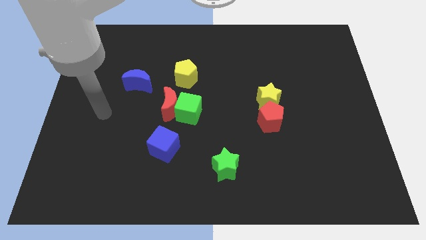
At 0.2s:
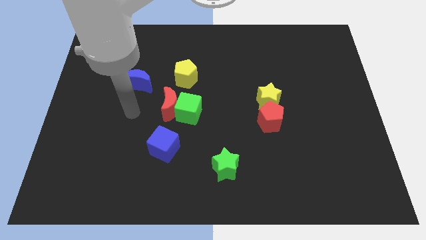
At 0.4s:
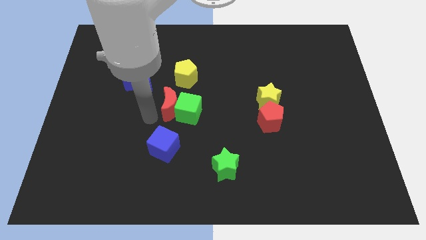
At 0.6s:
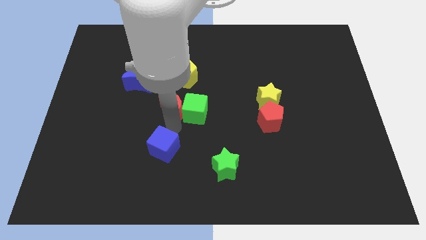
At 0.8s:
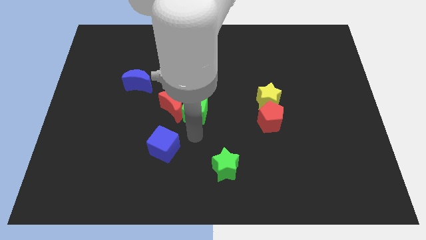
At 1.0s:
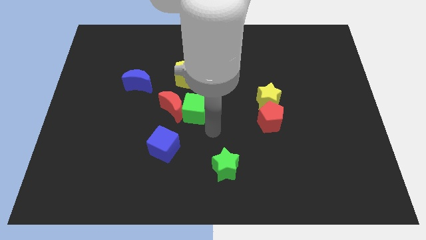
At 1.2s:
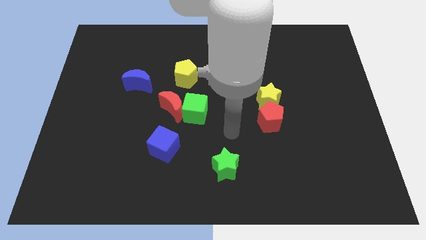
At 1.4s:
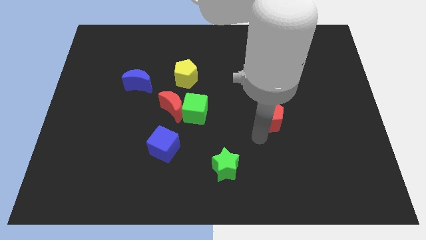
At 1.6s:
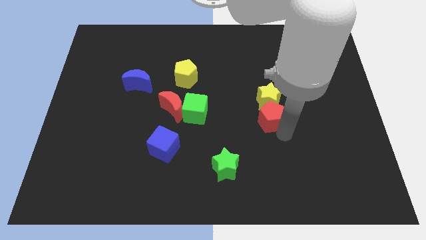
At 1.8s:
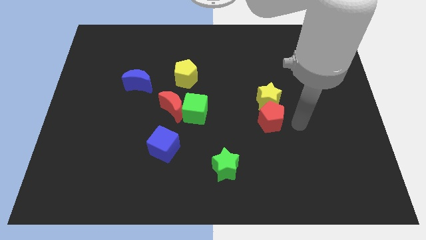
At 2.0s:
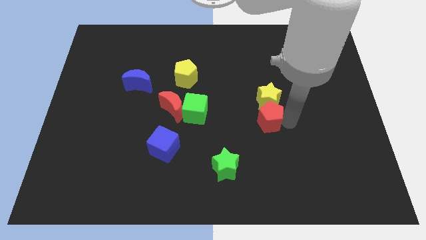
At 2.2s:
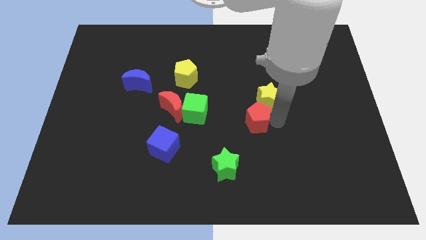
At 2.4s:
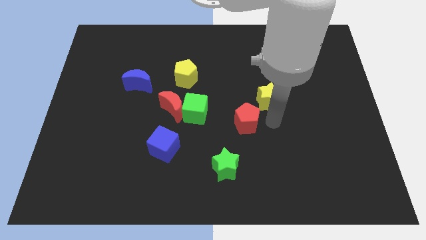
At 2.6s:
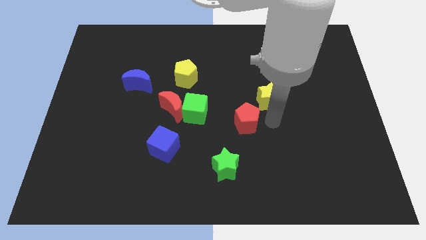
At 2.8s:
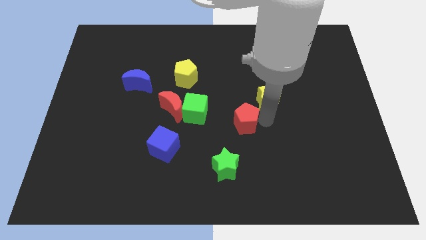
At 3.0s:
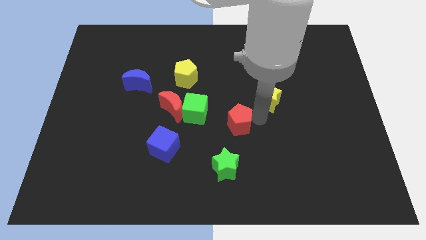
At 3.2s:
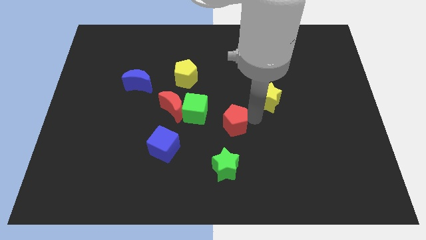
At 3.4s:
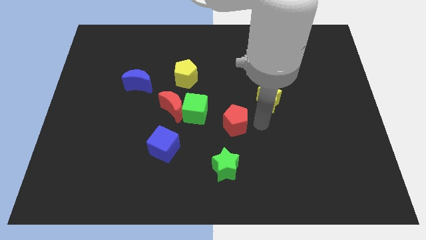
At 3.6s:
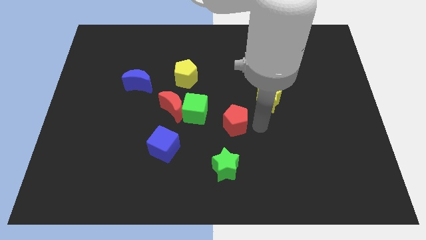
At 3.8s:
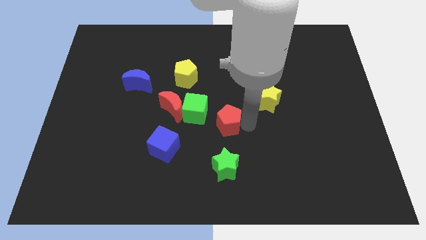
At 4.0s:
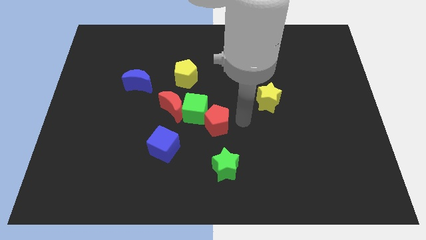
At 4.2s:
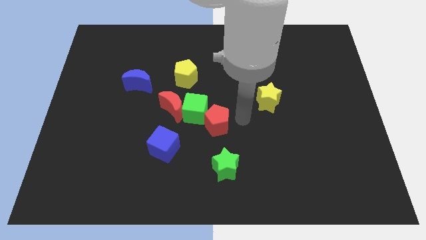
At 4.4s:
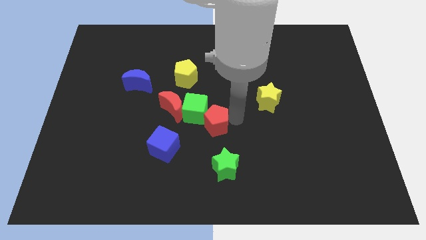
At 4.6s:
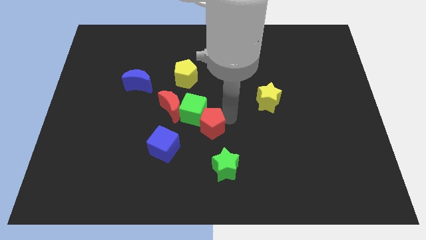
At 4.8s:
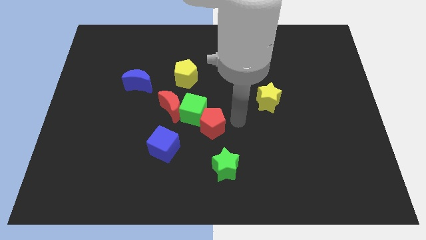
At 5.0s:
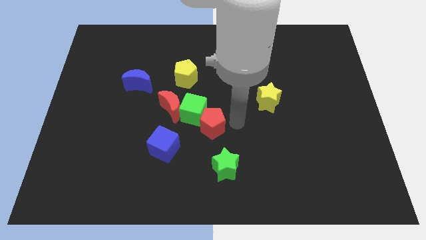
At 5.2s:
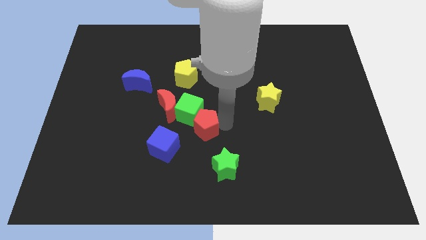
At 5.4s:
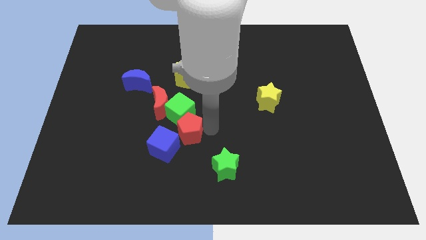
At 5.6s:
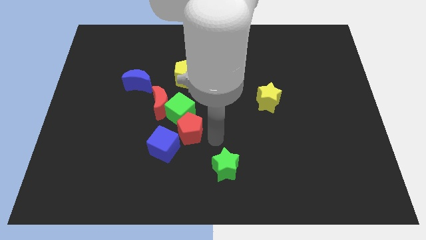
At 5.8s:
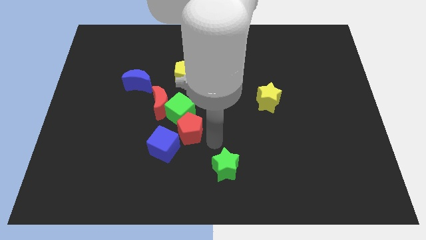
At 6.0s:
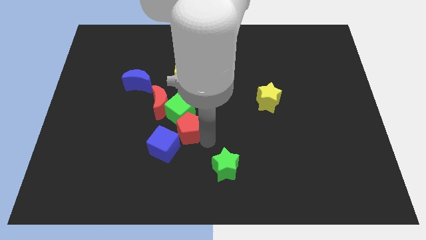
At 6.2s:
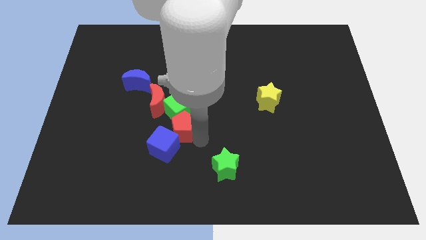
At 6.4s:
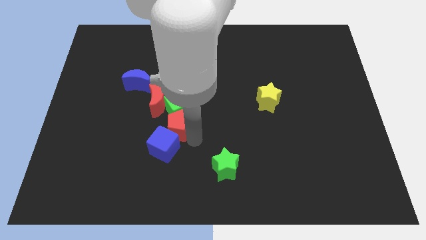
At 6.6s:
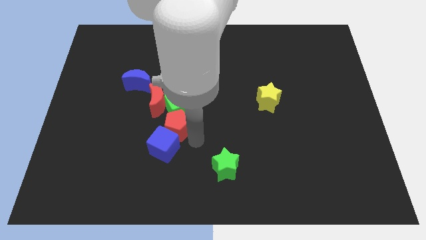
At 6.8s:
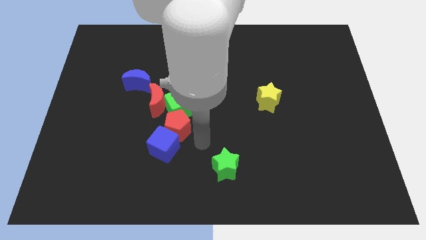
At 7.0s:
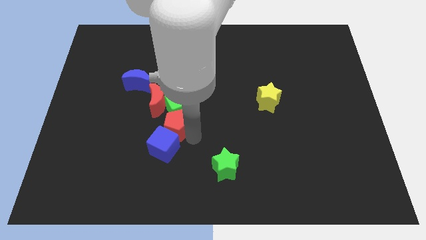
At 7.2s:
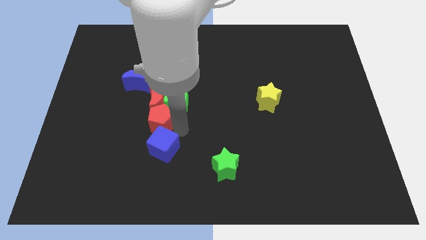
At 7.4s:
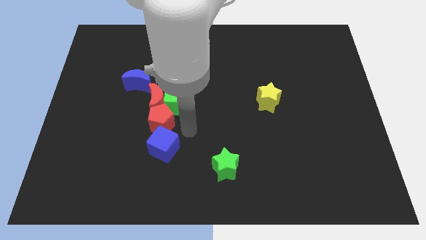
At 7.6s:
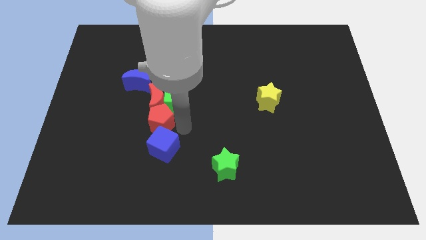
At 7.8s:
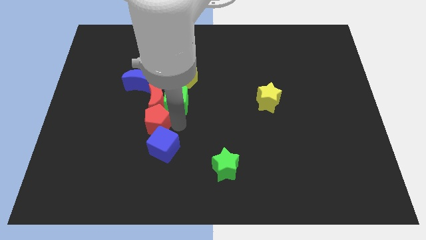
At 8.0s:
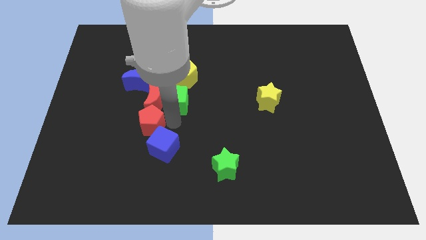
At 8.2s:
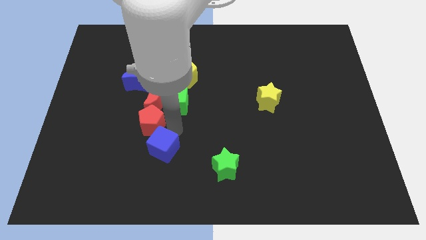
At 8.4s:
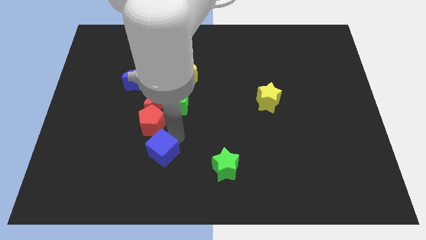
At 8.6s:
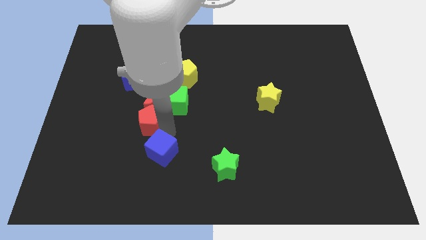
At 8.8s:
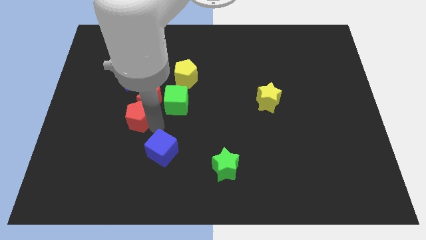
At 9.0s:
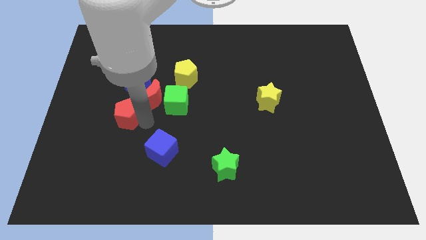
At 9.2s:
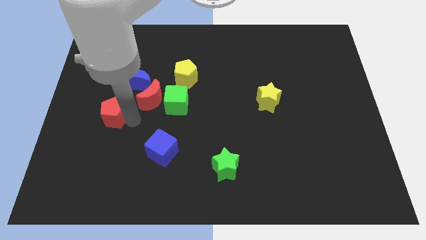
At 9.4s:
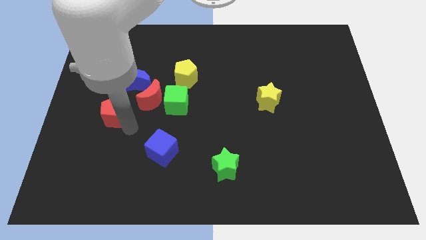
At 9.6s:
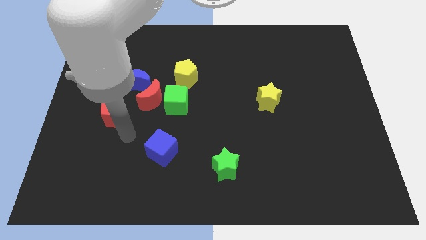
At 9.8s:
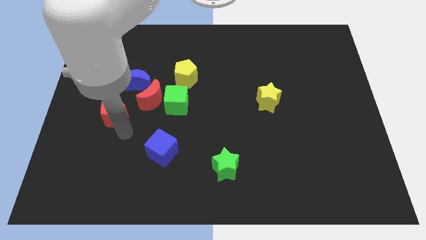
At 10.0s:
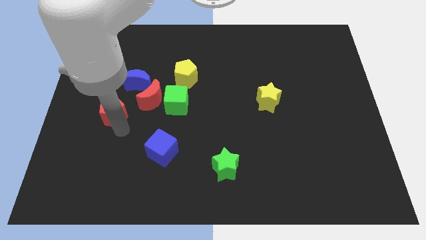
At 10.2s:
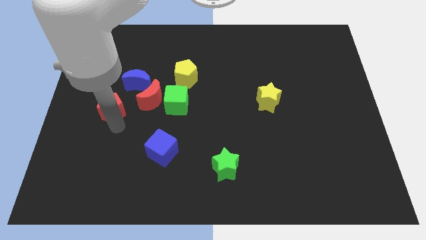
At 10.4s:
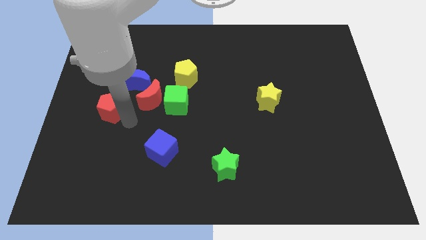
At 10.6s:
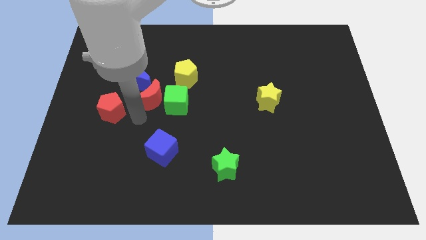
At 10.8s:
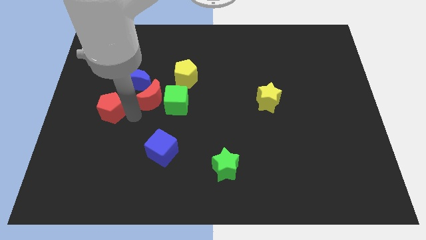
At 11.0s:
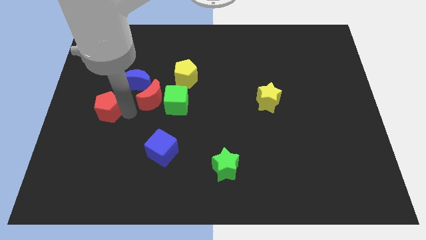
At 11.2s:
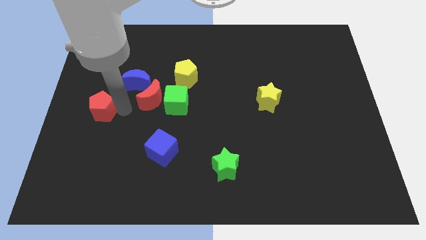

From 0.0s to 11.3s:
push the red pentagon to the center left

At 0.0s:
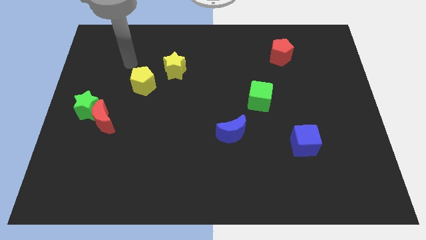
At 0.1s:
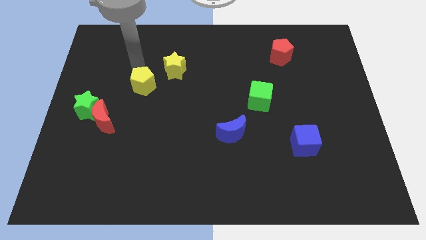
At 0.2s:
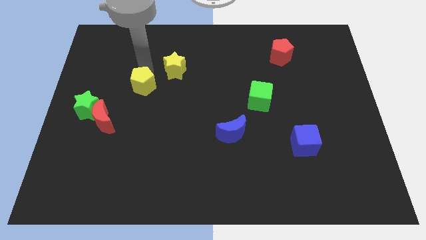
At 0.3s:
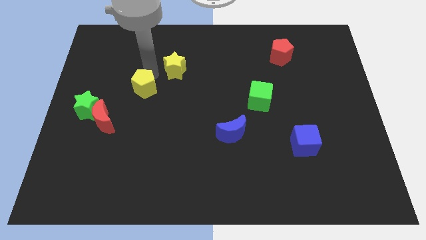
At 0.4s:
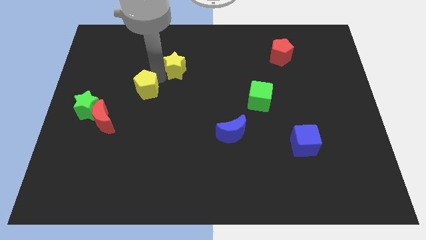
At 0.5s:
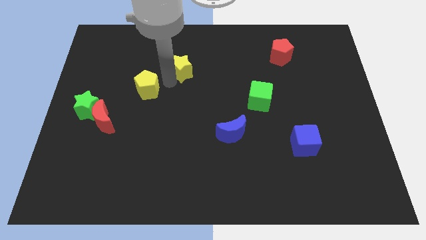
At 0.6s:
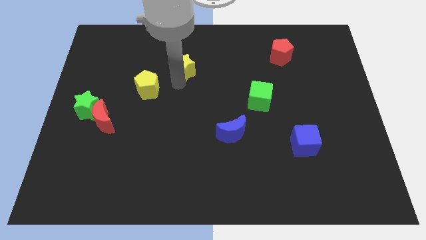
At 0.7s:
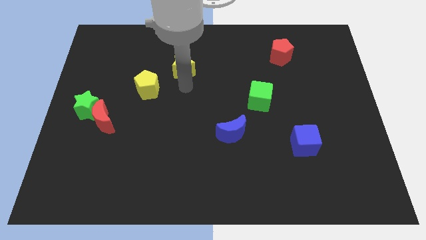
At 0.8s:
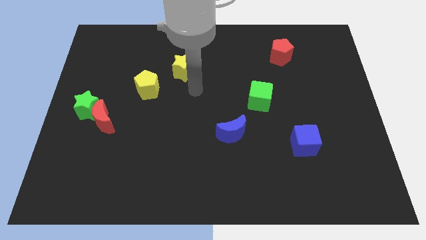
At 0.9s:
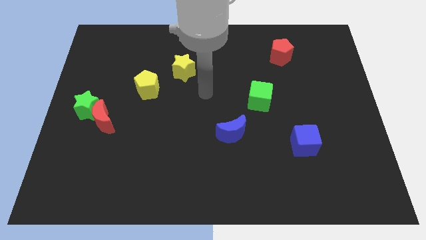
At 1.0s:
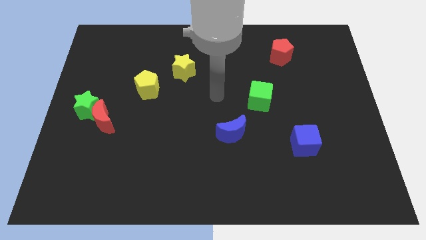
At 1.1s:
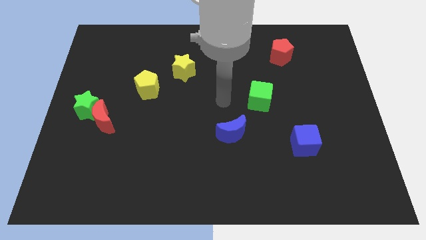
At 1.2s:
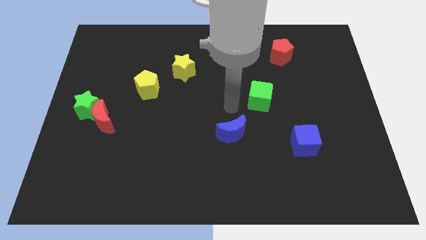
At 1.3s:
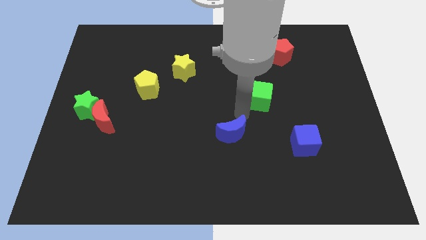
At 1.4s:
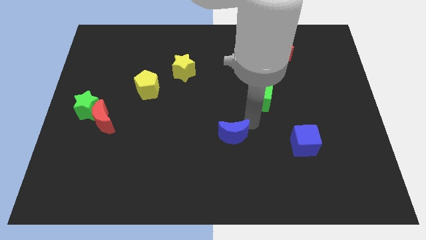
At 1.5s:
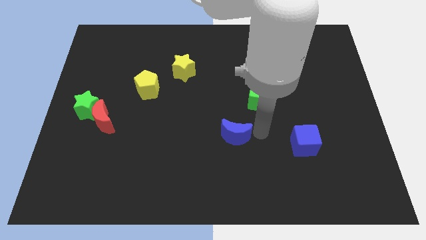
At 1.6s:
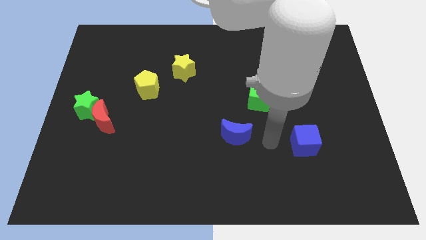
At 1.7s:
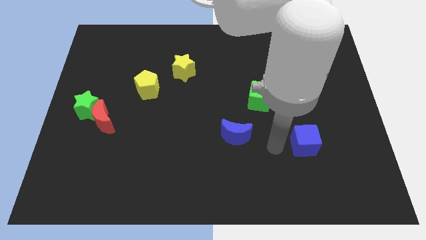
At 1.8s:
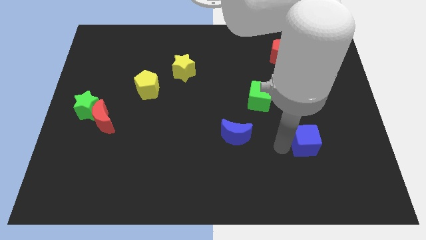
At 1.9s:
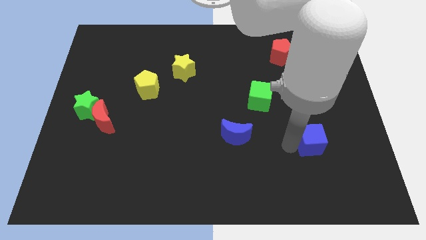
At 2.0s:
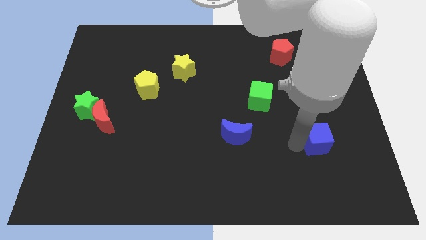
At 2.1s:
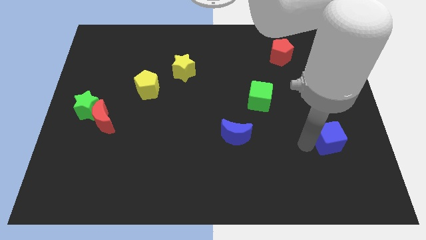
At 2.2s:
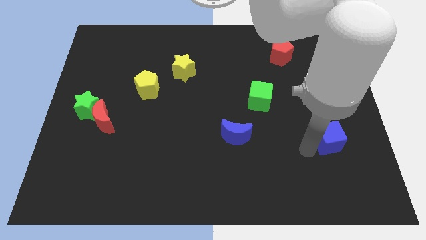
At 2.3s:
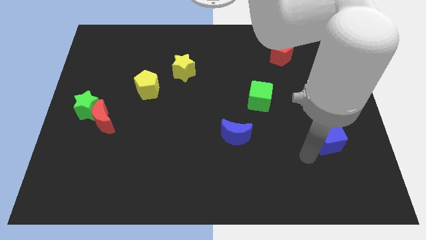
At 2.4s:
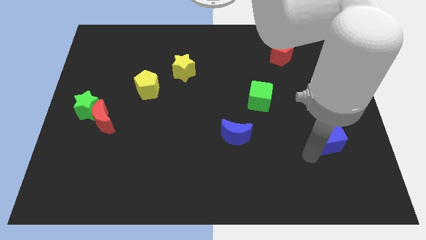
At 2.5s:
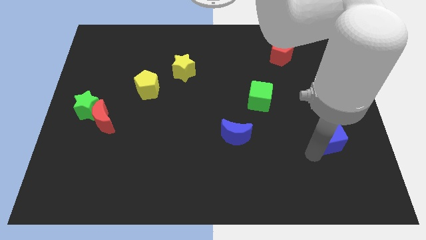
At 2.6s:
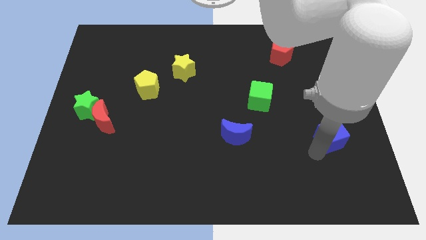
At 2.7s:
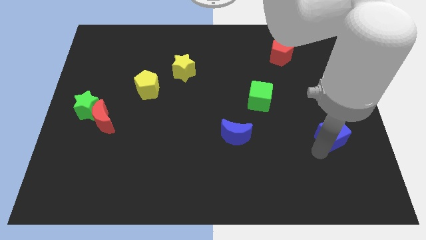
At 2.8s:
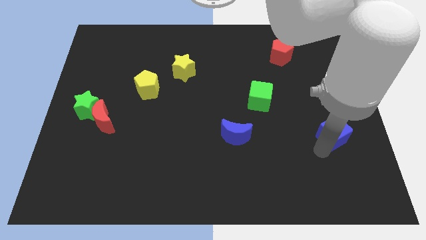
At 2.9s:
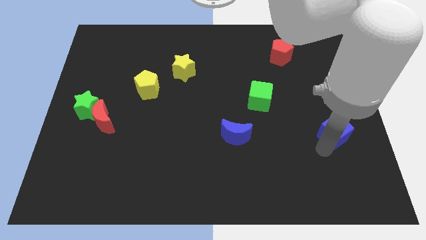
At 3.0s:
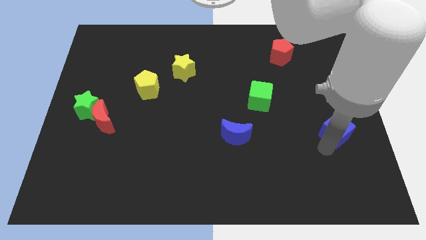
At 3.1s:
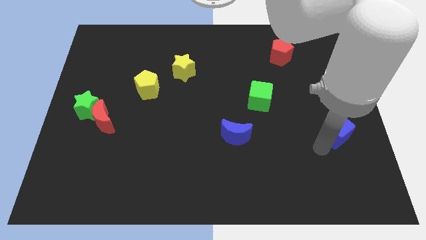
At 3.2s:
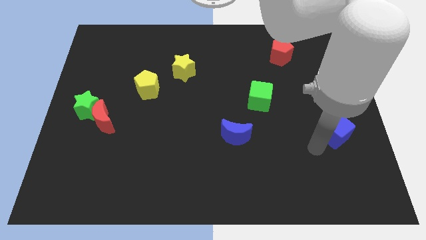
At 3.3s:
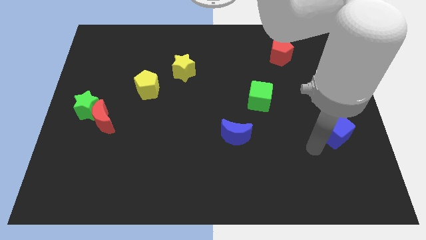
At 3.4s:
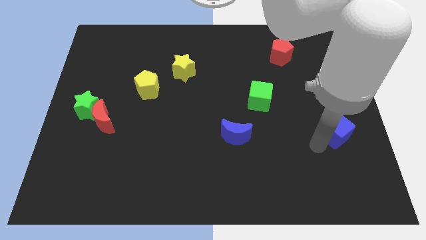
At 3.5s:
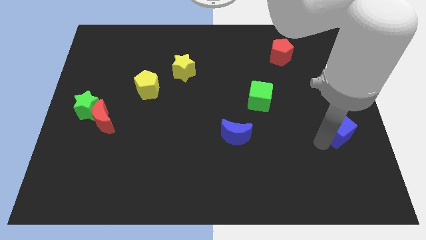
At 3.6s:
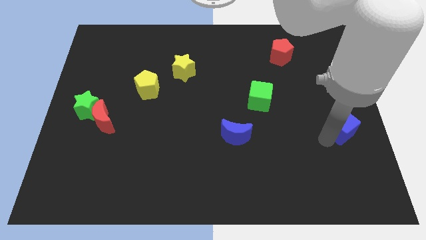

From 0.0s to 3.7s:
put the blue cube to the right side
